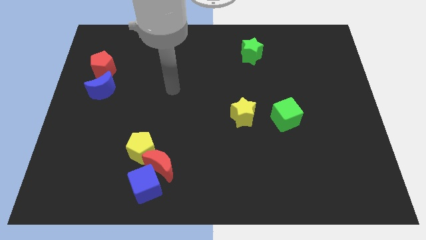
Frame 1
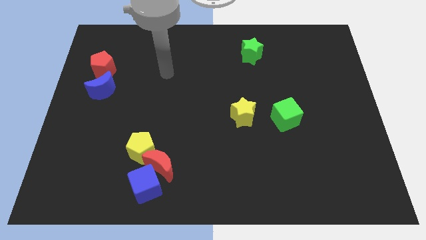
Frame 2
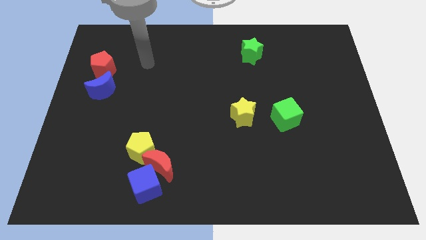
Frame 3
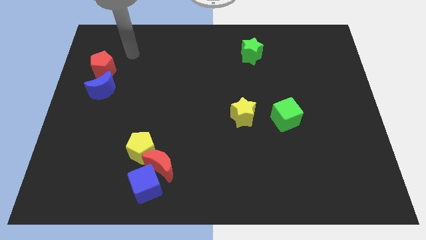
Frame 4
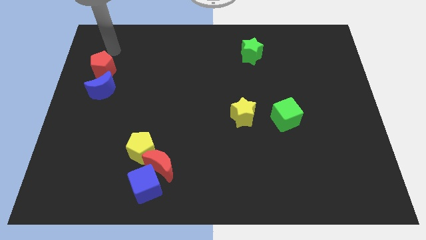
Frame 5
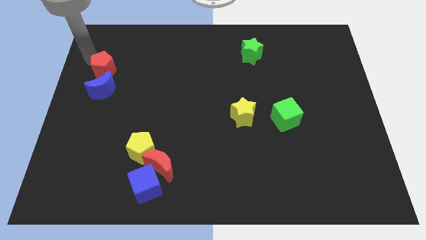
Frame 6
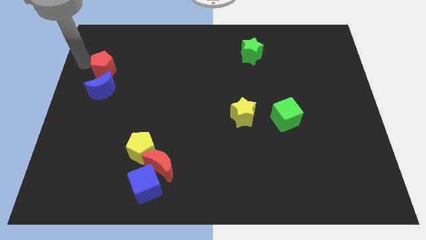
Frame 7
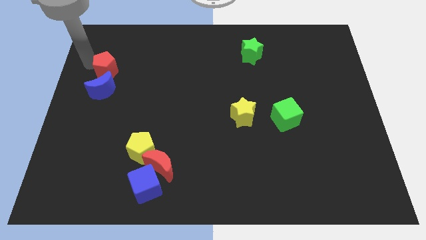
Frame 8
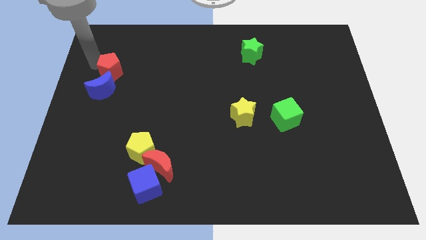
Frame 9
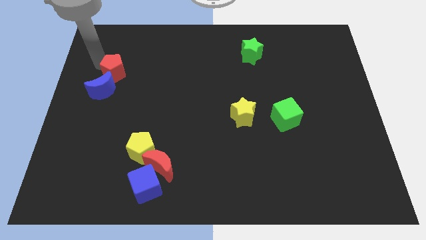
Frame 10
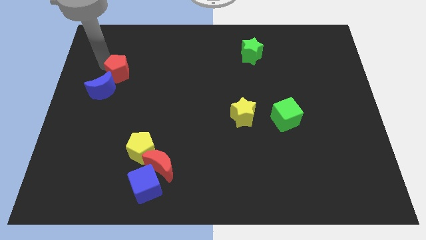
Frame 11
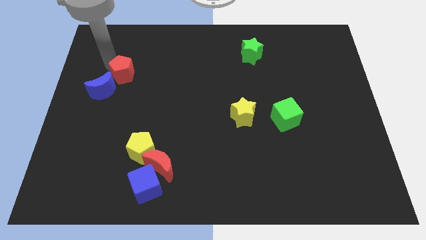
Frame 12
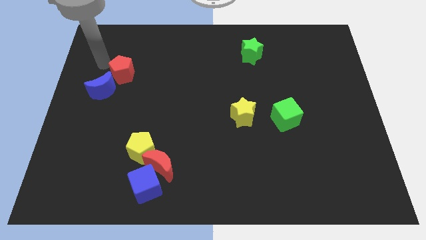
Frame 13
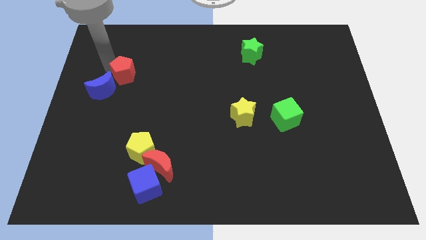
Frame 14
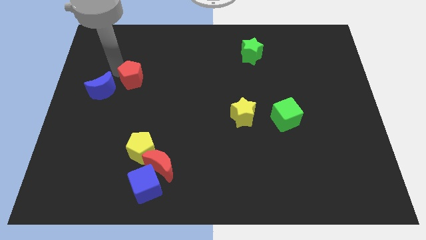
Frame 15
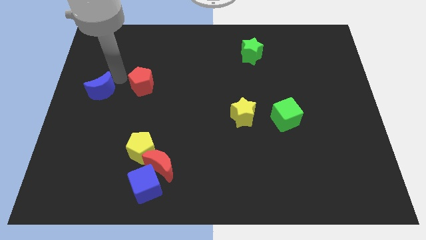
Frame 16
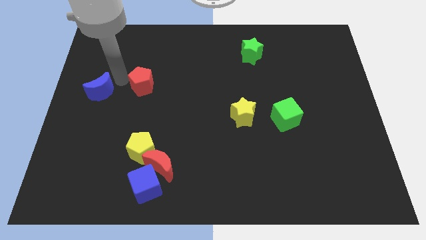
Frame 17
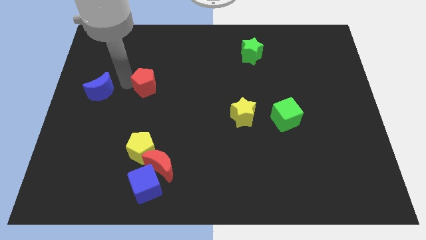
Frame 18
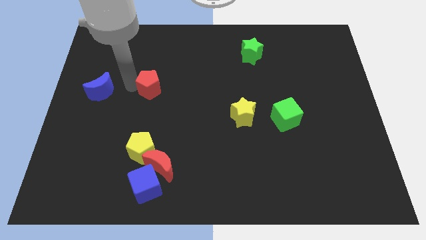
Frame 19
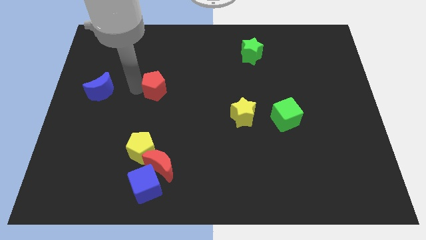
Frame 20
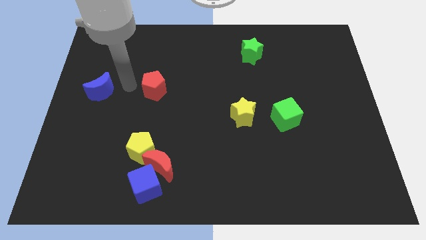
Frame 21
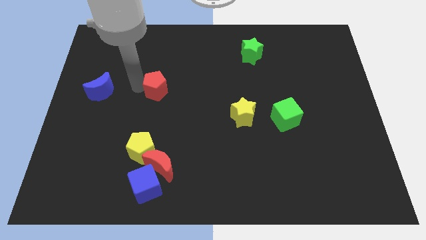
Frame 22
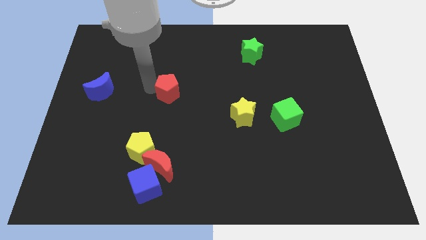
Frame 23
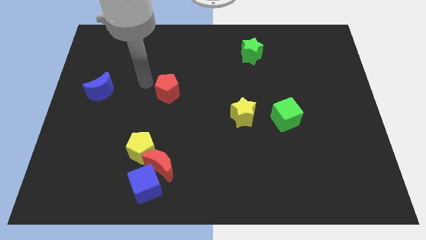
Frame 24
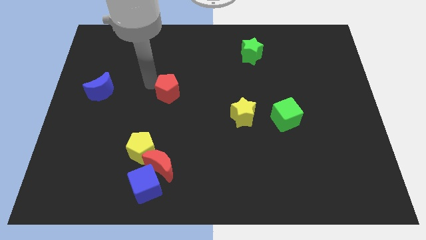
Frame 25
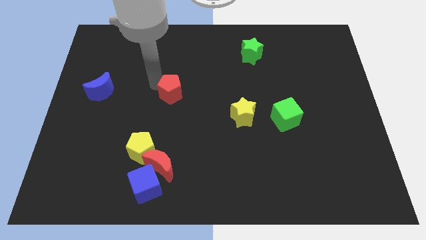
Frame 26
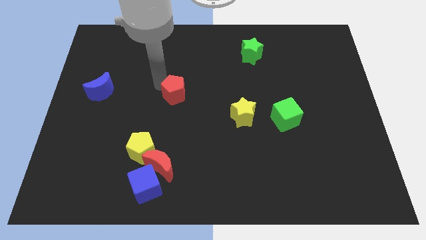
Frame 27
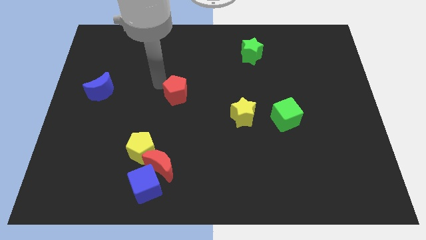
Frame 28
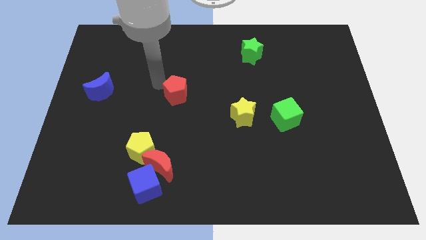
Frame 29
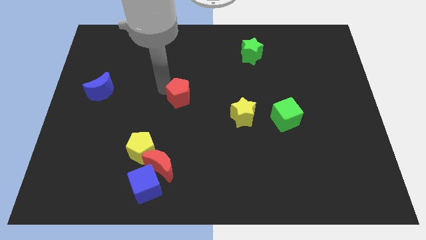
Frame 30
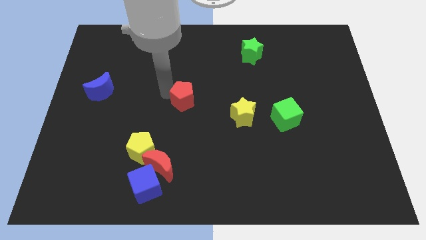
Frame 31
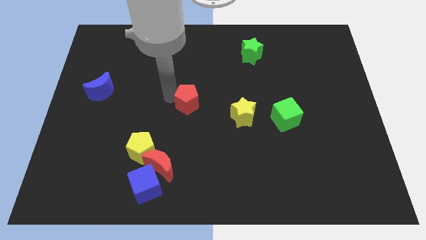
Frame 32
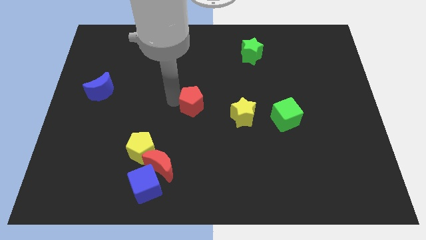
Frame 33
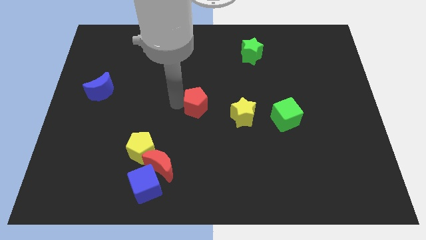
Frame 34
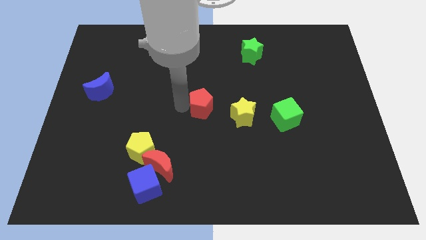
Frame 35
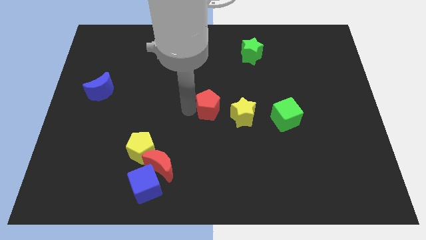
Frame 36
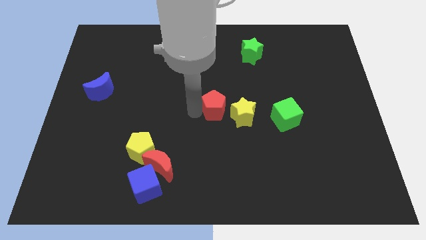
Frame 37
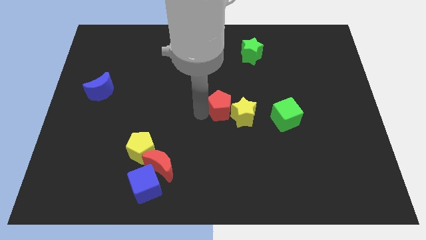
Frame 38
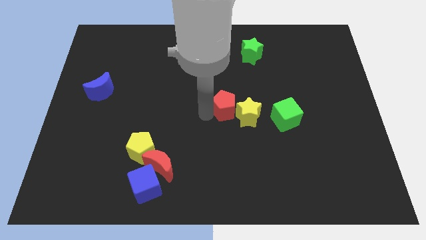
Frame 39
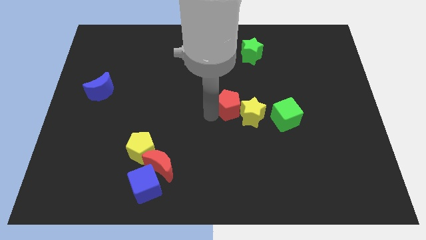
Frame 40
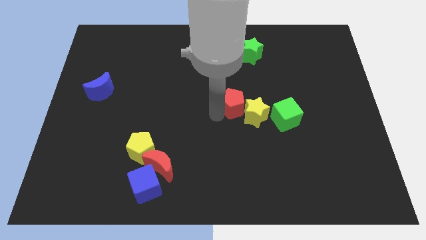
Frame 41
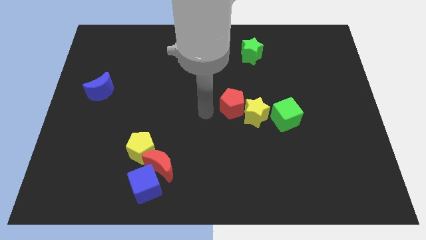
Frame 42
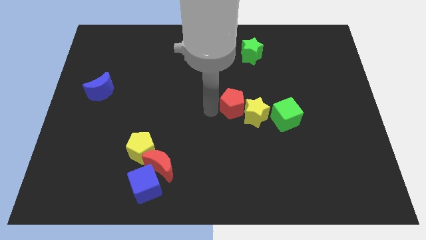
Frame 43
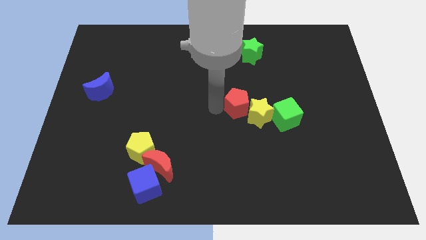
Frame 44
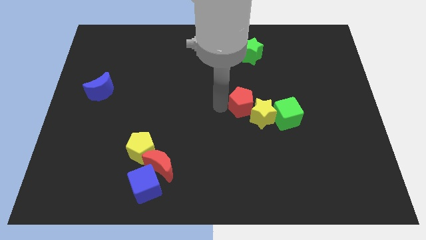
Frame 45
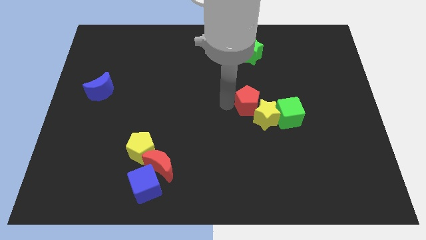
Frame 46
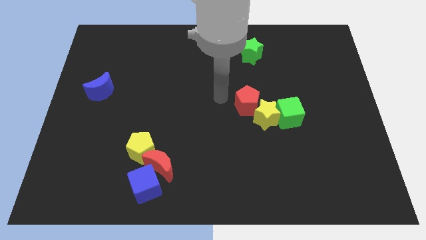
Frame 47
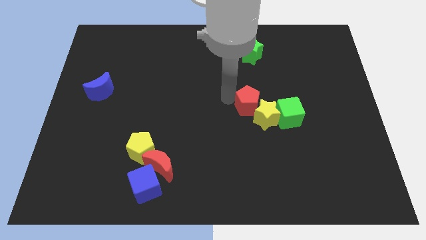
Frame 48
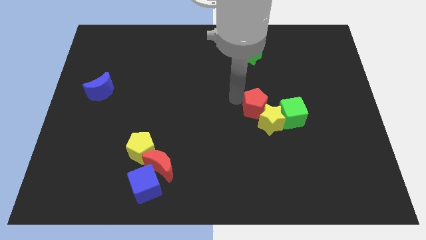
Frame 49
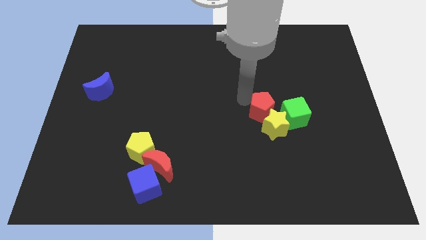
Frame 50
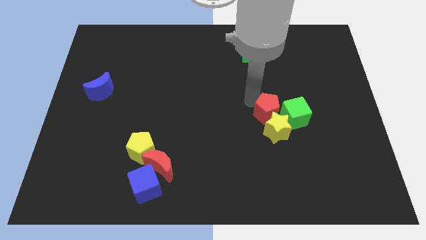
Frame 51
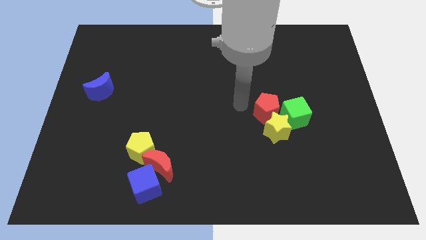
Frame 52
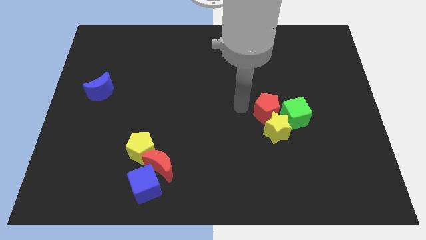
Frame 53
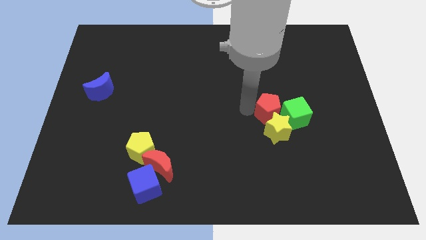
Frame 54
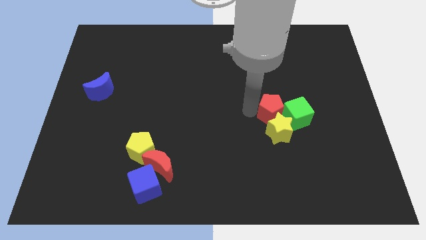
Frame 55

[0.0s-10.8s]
push the red pentagon to the green cube

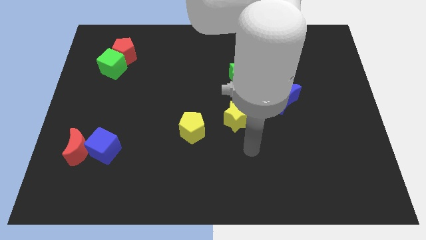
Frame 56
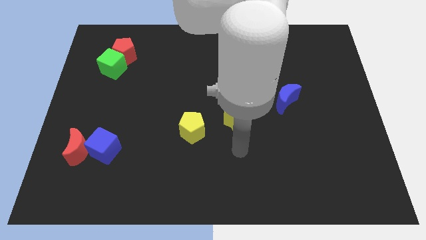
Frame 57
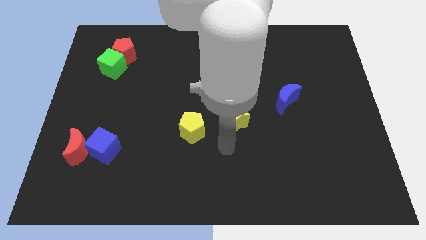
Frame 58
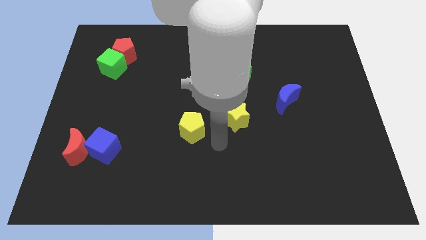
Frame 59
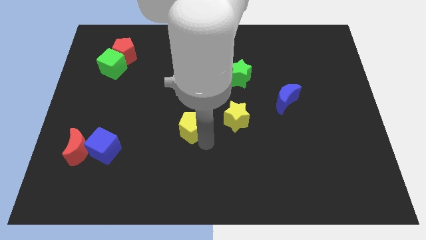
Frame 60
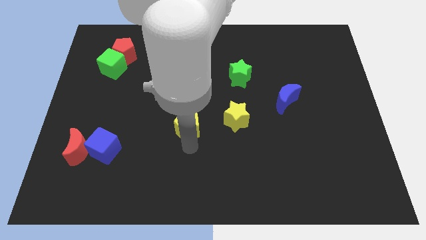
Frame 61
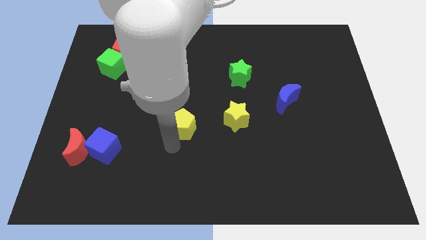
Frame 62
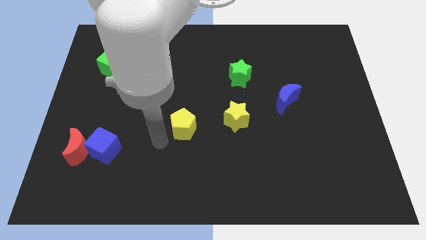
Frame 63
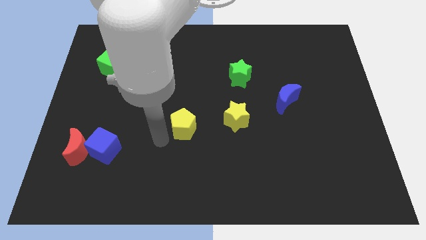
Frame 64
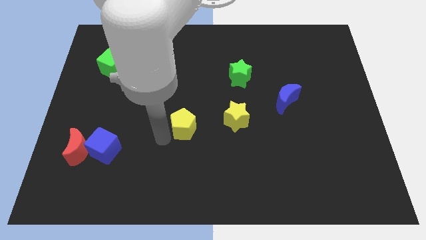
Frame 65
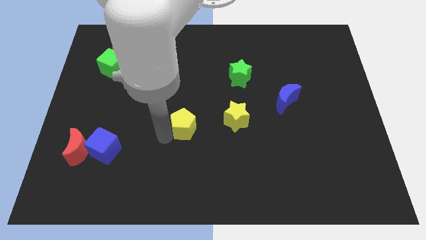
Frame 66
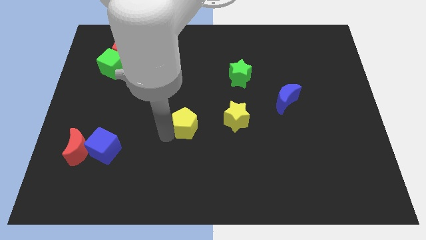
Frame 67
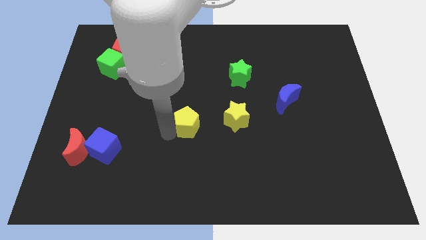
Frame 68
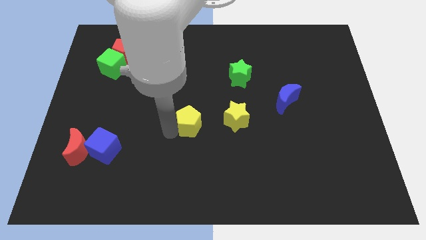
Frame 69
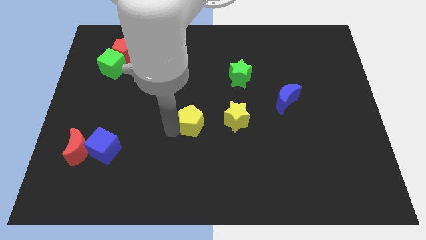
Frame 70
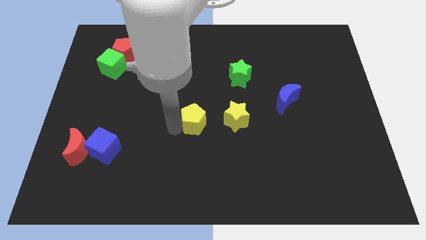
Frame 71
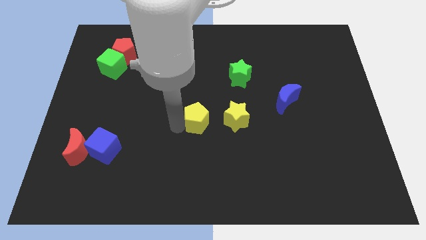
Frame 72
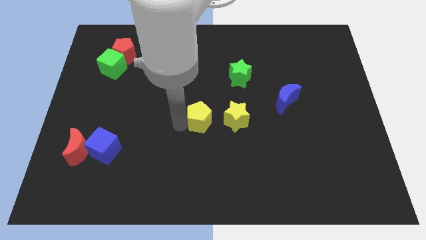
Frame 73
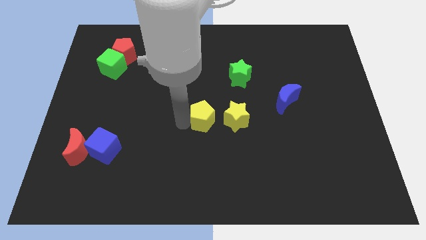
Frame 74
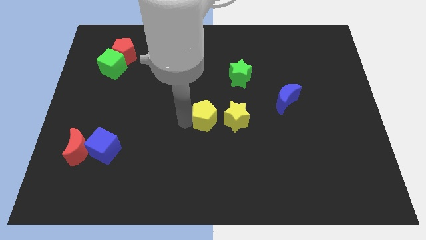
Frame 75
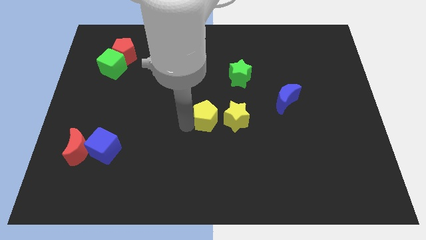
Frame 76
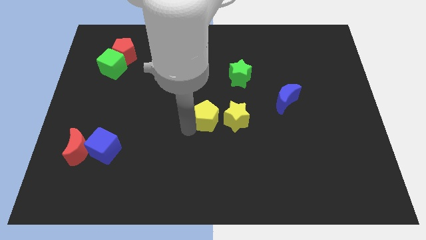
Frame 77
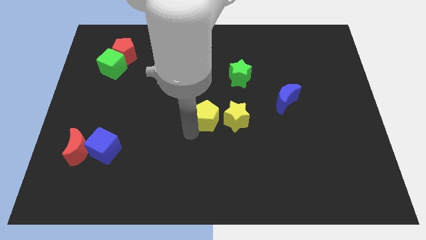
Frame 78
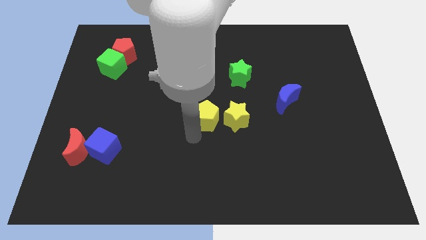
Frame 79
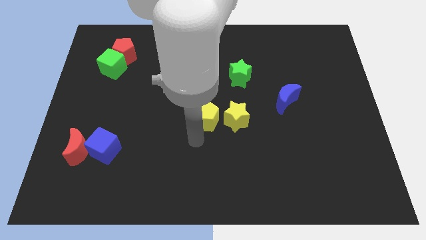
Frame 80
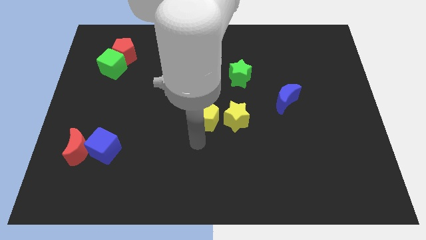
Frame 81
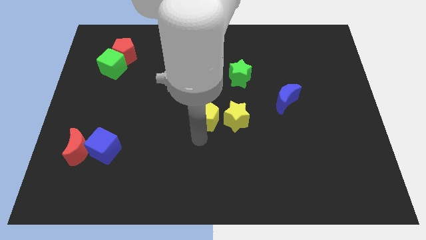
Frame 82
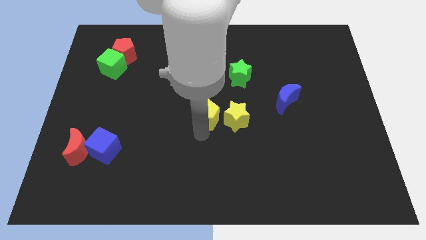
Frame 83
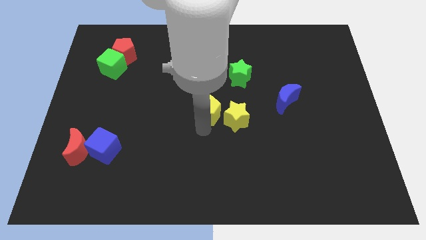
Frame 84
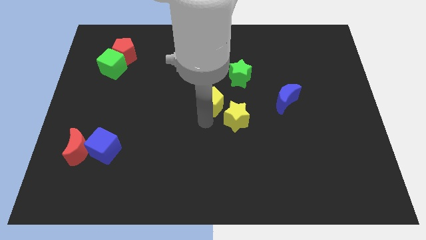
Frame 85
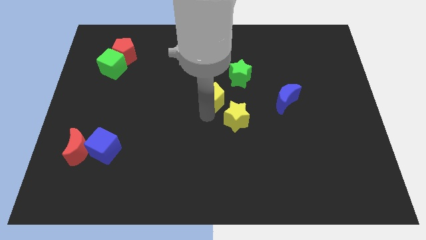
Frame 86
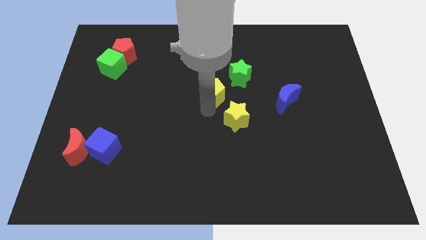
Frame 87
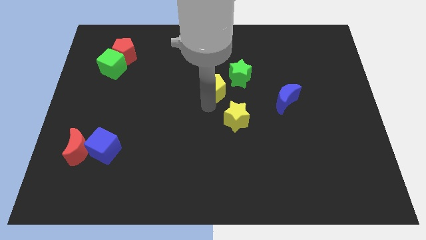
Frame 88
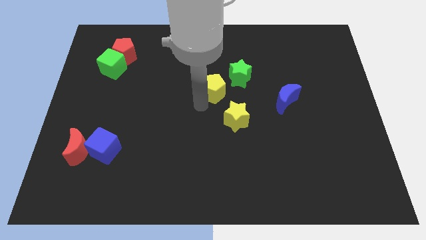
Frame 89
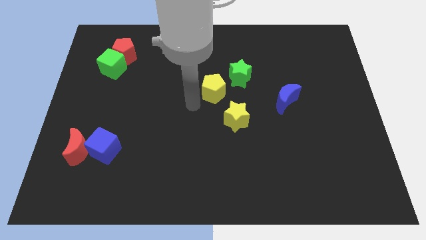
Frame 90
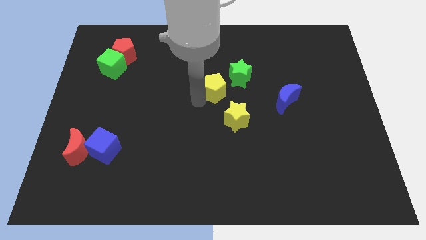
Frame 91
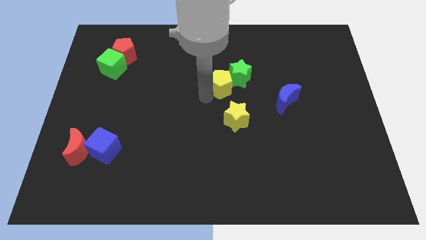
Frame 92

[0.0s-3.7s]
slide the yellow pentagon to the green star
